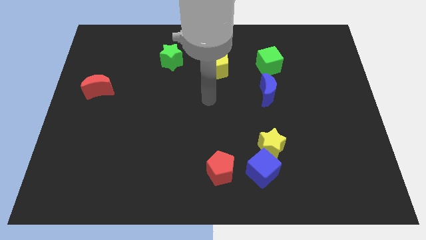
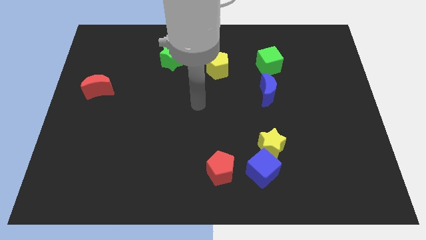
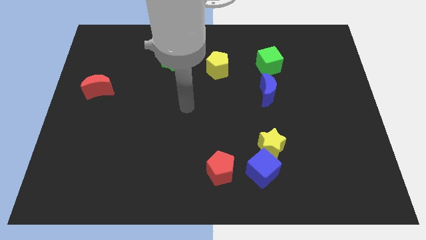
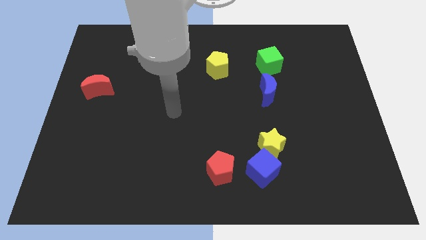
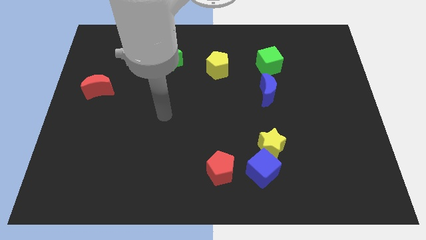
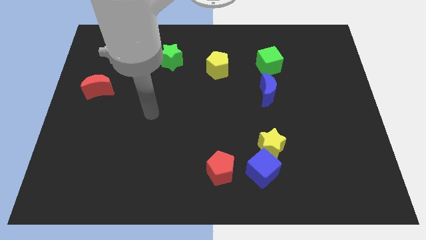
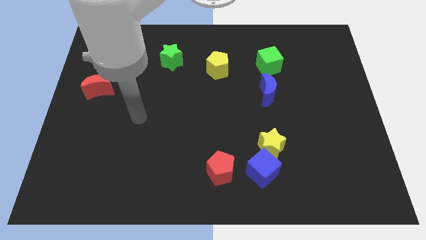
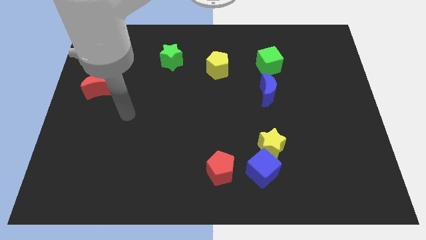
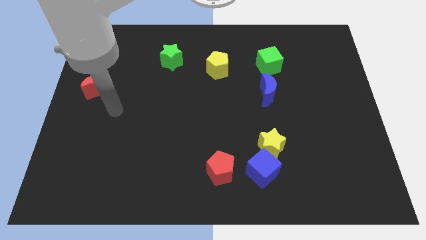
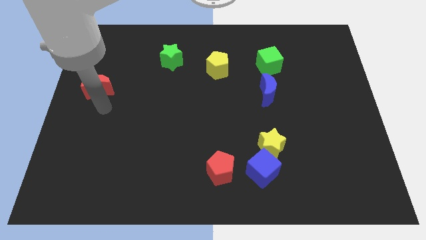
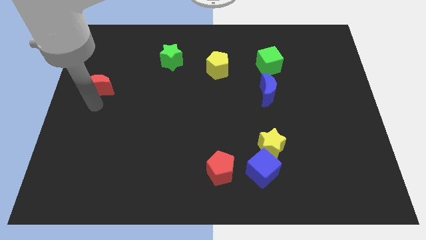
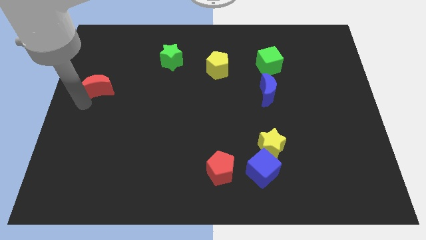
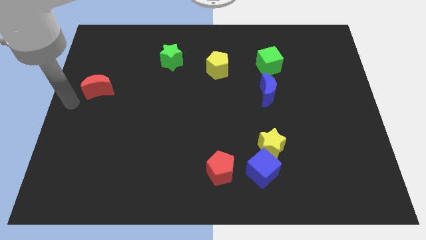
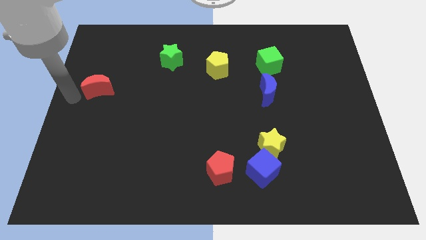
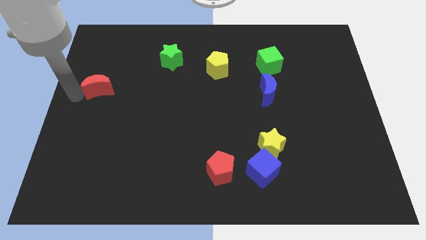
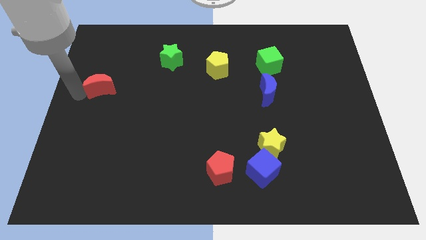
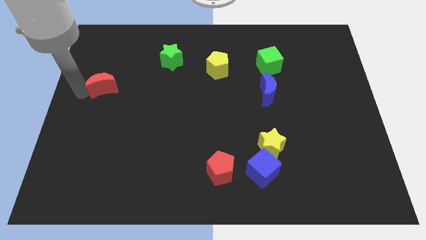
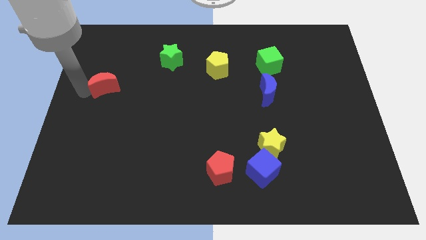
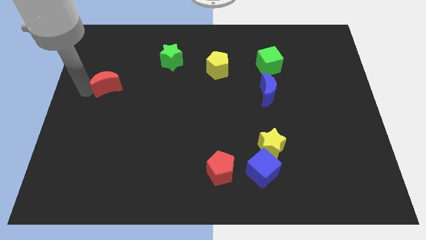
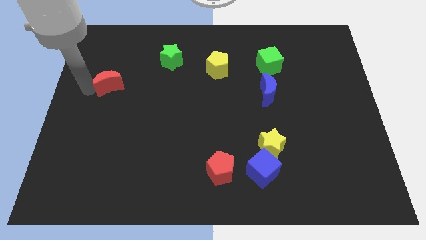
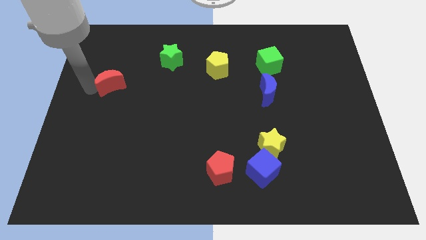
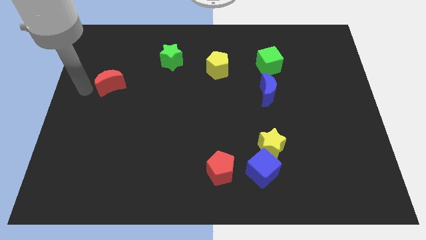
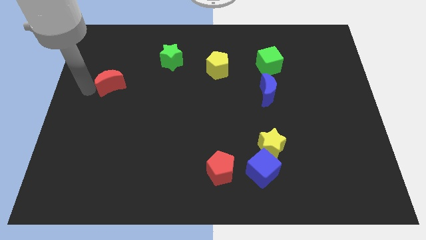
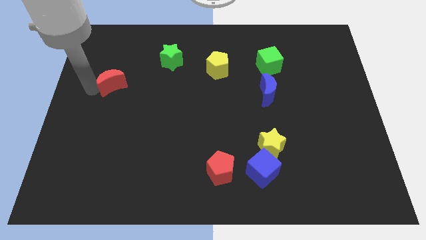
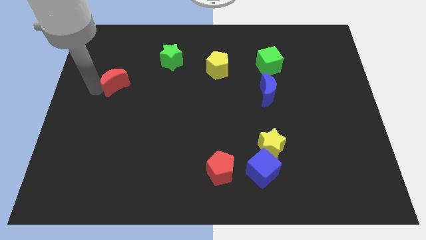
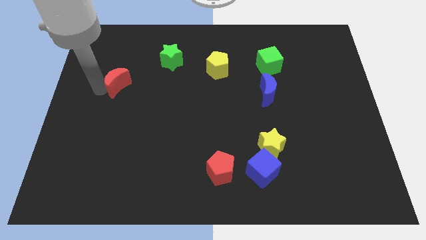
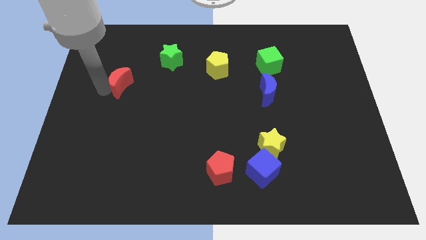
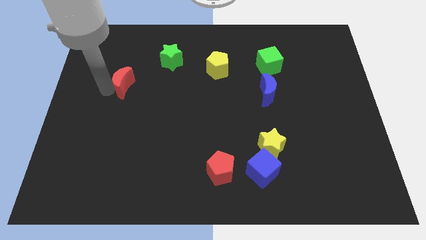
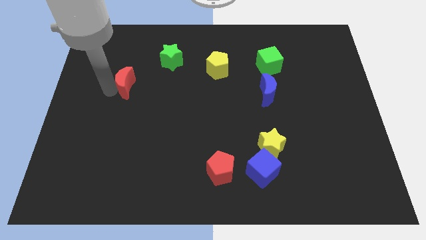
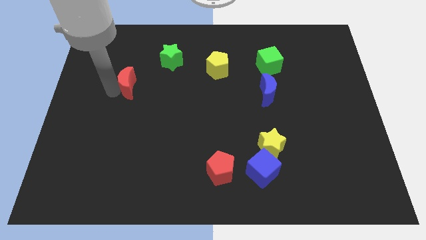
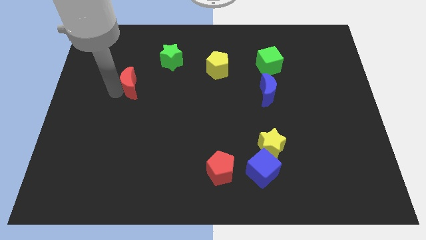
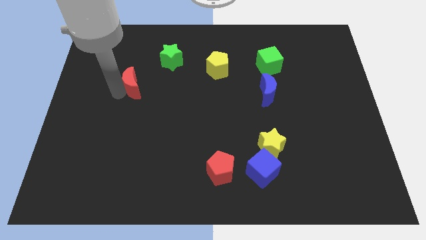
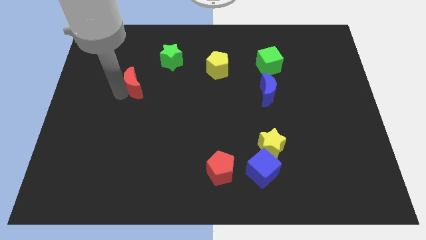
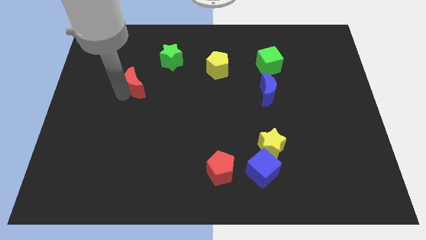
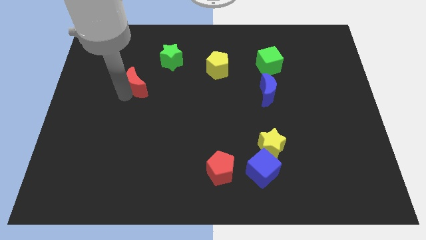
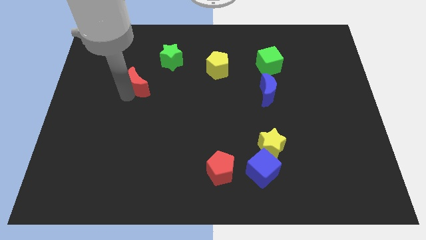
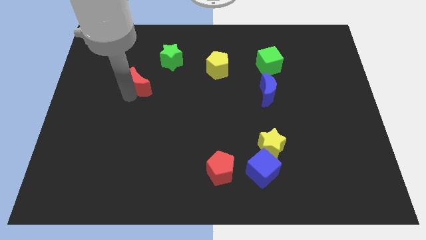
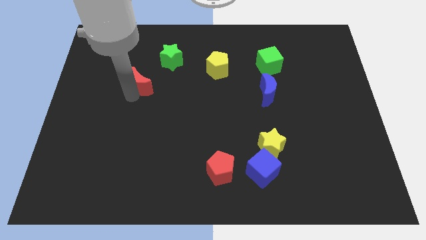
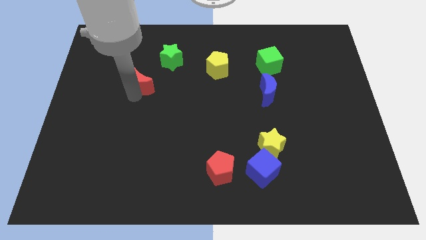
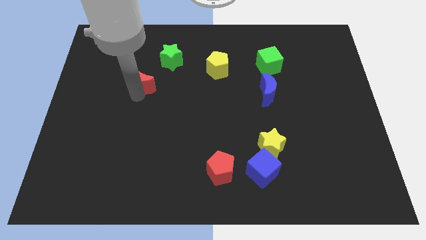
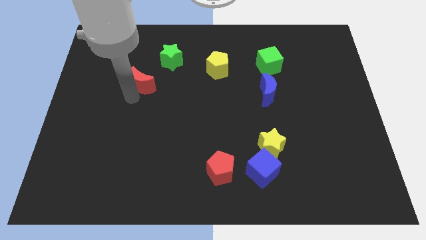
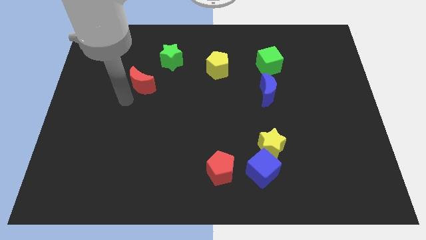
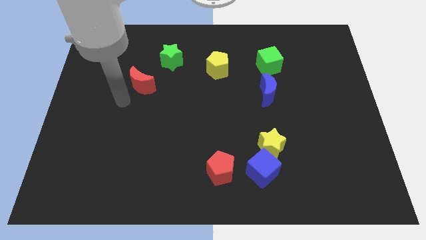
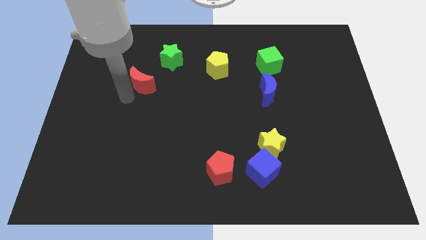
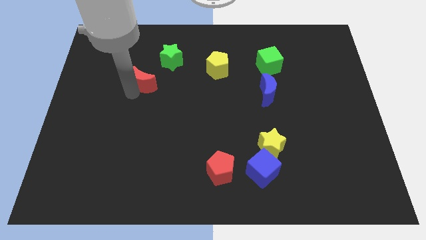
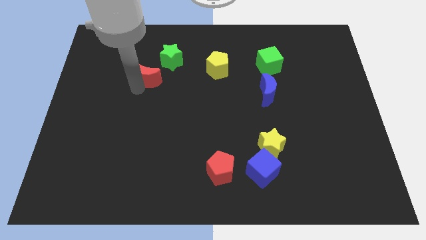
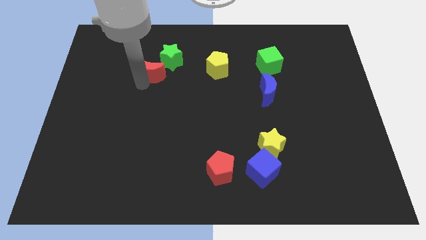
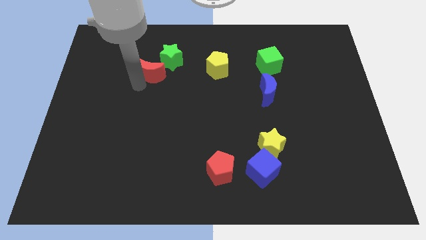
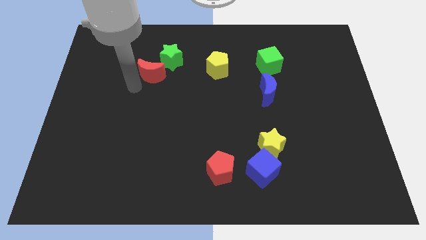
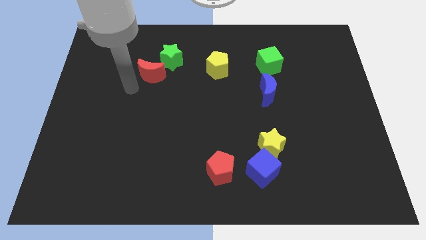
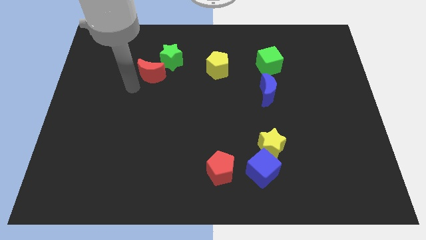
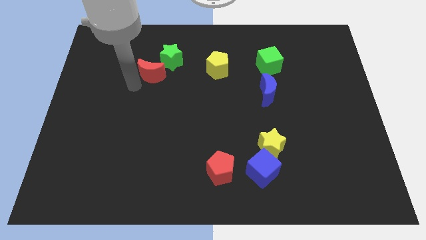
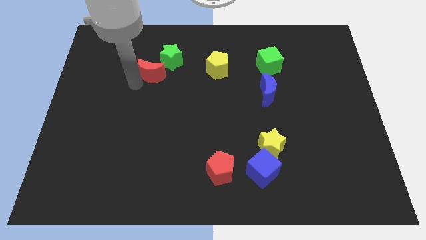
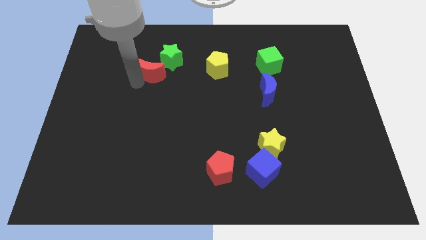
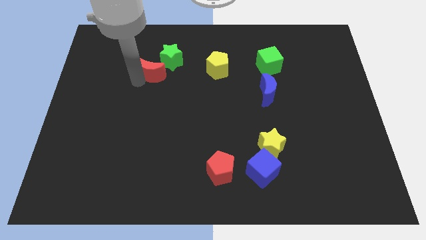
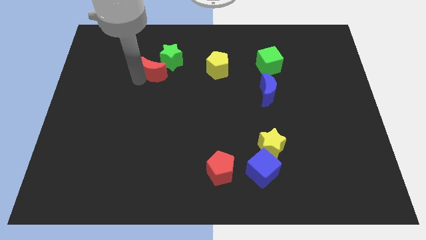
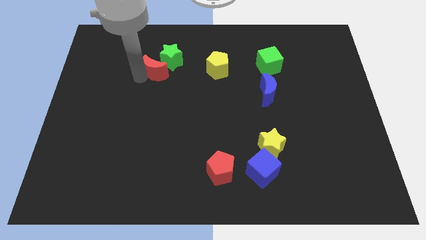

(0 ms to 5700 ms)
push the red moon to the left side of the yellow pentagon
